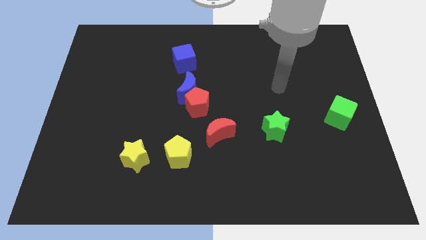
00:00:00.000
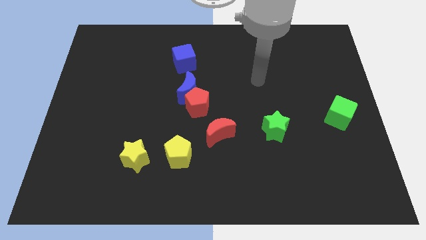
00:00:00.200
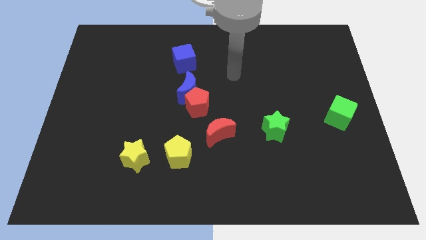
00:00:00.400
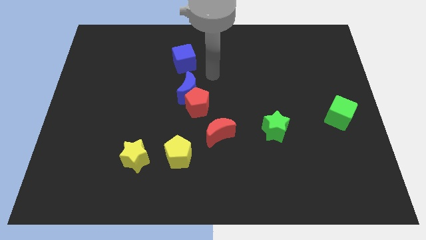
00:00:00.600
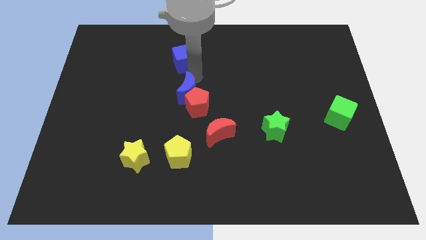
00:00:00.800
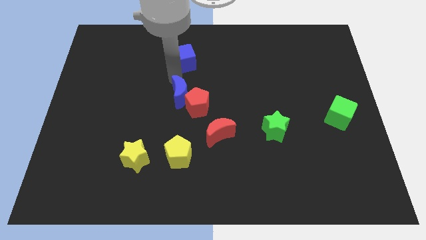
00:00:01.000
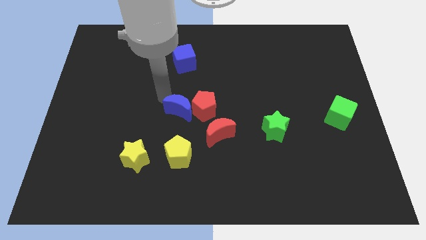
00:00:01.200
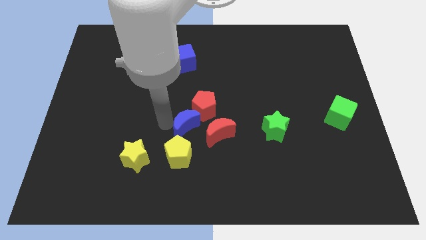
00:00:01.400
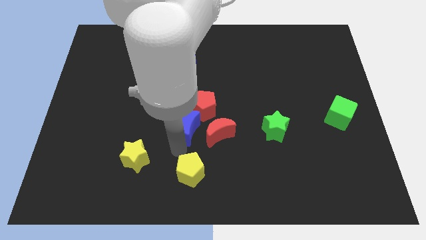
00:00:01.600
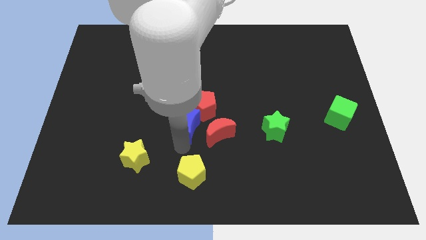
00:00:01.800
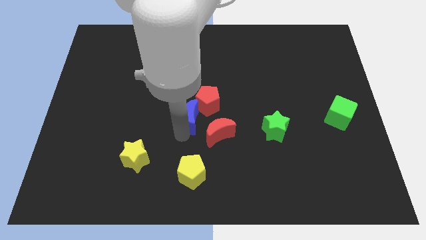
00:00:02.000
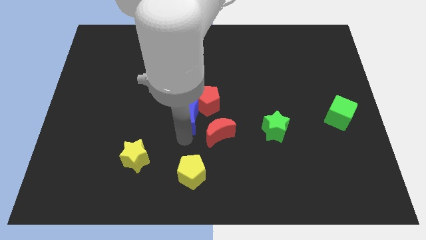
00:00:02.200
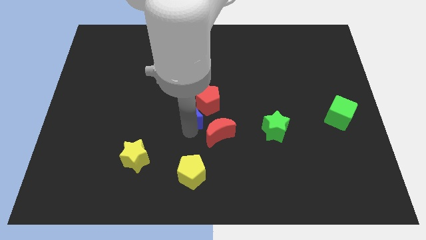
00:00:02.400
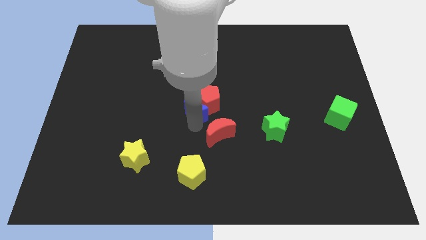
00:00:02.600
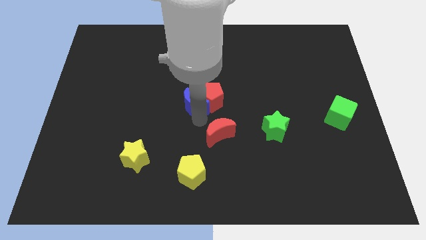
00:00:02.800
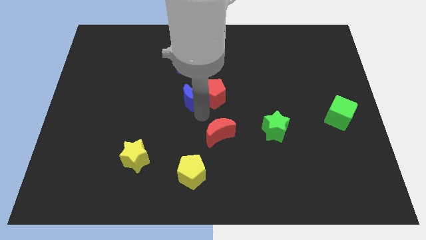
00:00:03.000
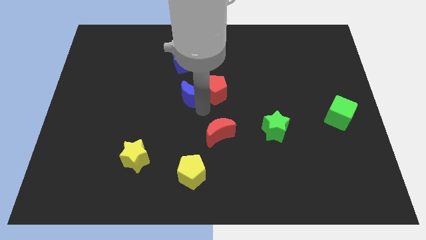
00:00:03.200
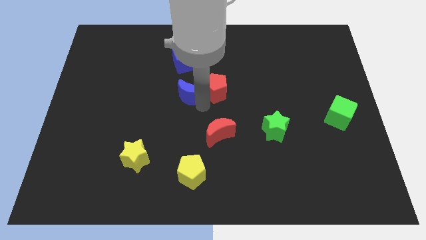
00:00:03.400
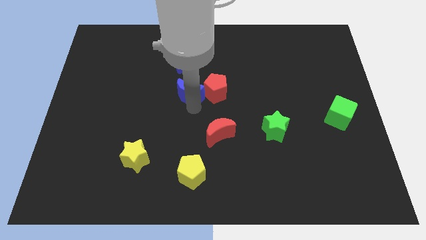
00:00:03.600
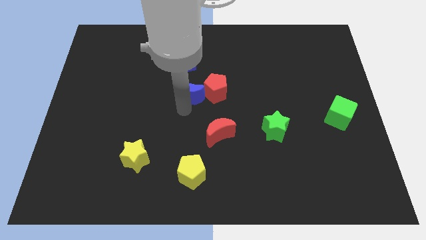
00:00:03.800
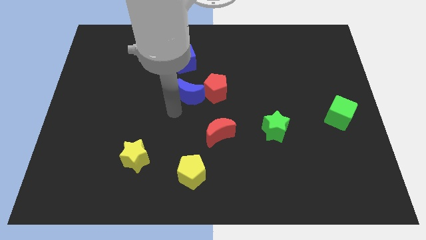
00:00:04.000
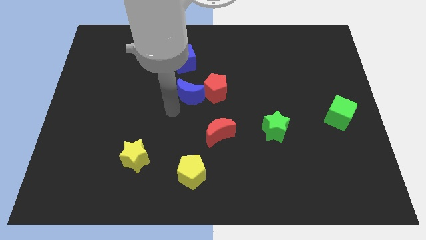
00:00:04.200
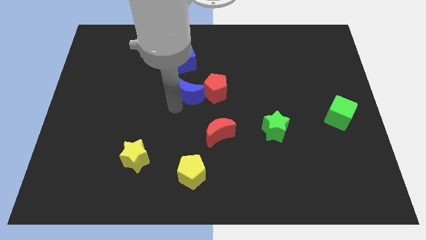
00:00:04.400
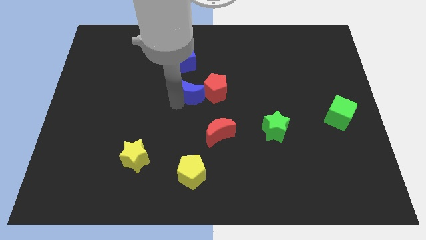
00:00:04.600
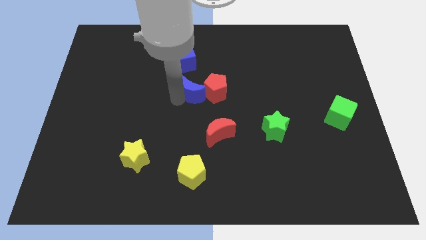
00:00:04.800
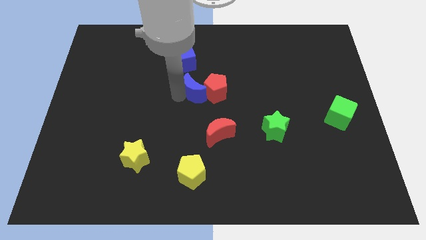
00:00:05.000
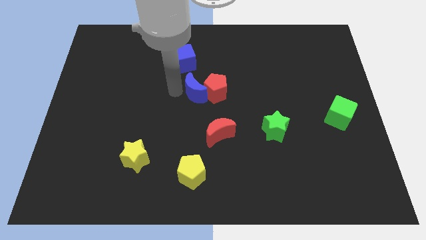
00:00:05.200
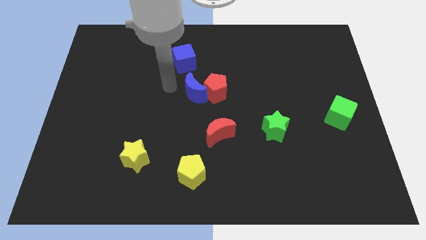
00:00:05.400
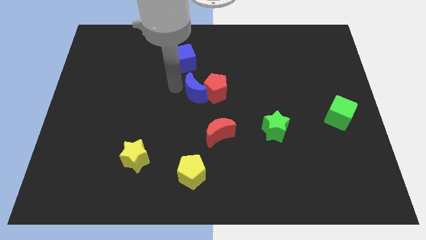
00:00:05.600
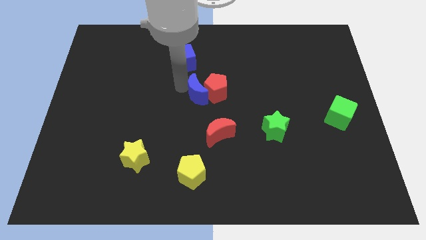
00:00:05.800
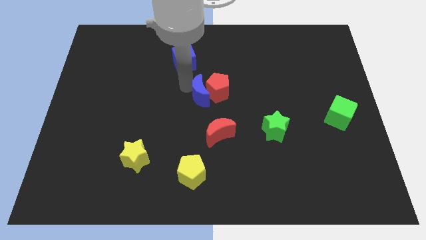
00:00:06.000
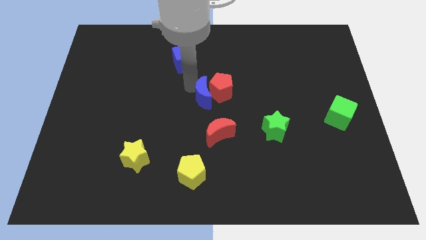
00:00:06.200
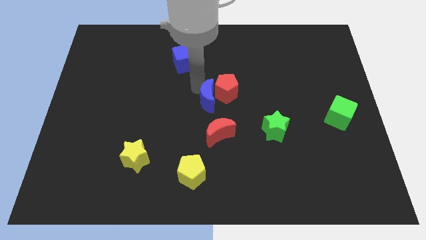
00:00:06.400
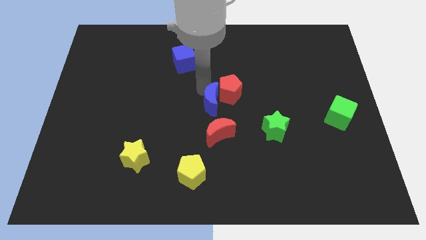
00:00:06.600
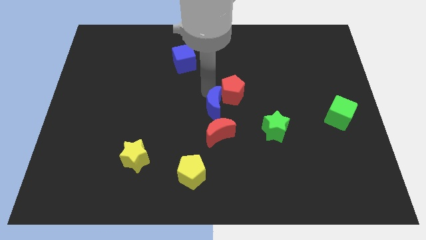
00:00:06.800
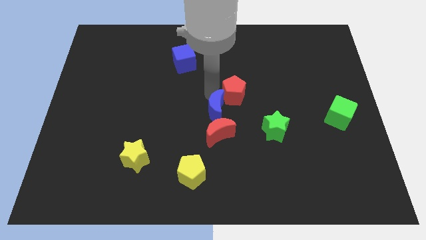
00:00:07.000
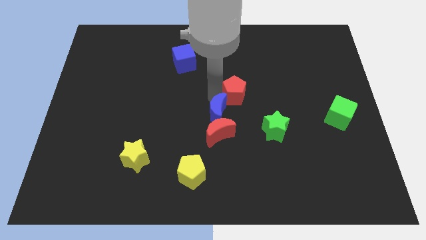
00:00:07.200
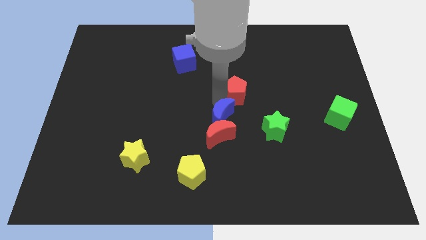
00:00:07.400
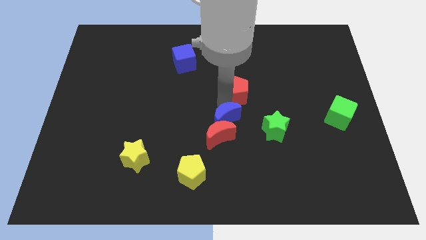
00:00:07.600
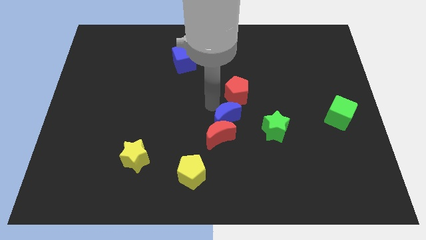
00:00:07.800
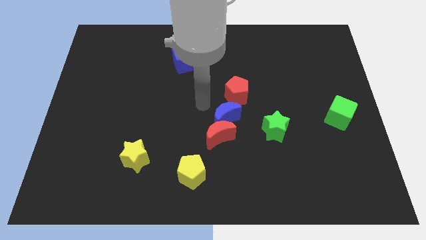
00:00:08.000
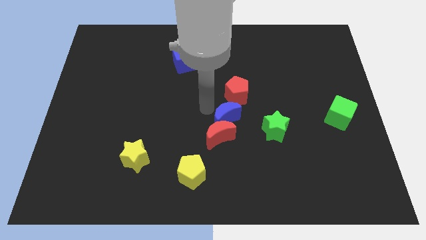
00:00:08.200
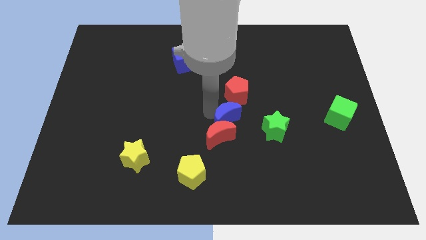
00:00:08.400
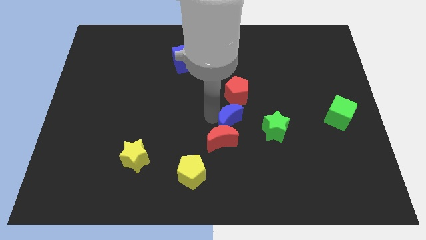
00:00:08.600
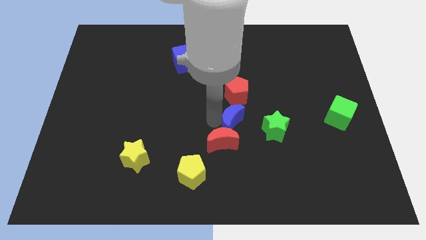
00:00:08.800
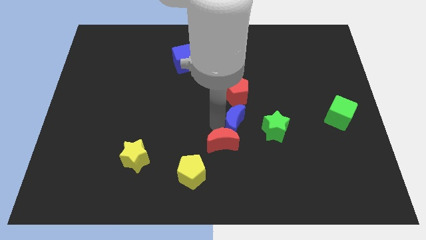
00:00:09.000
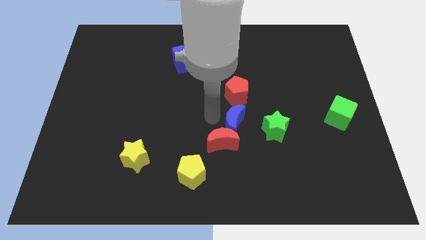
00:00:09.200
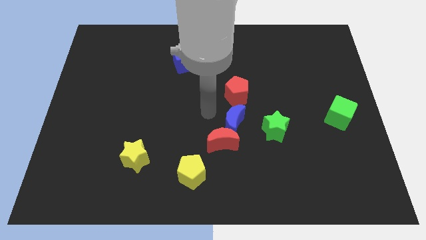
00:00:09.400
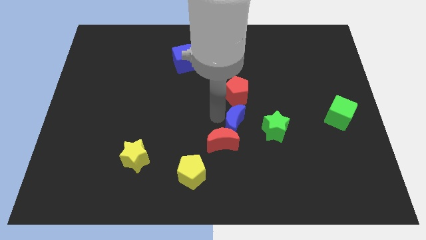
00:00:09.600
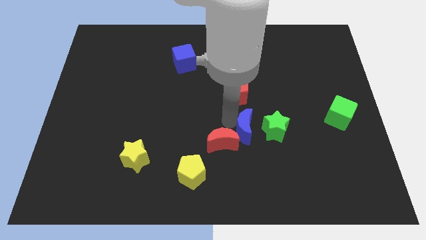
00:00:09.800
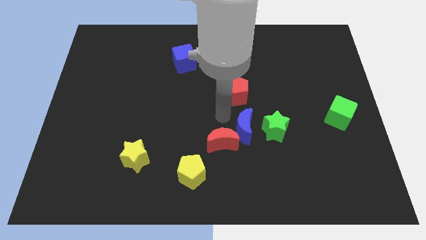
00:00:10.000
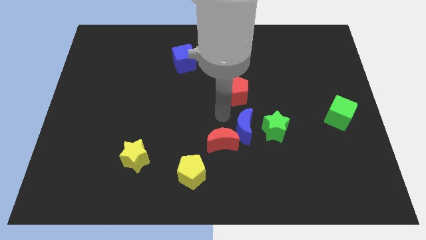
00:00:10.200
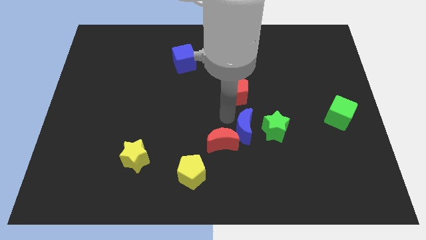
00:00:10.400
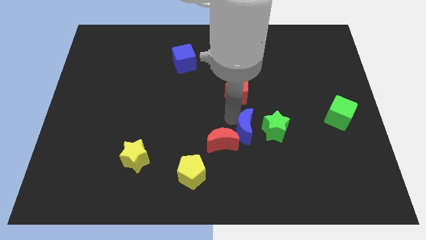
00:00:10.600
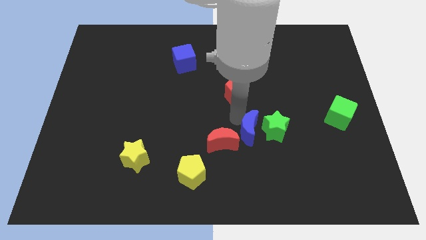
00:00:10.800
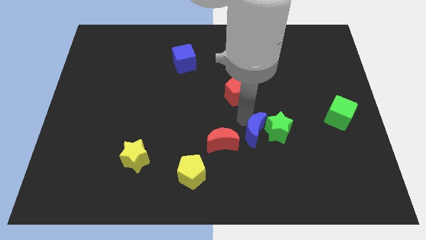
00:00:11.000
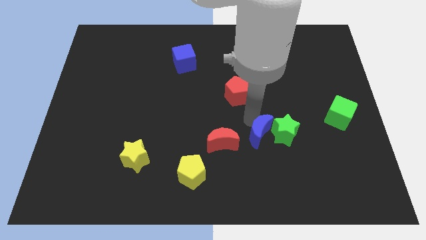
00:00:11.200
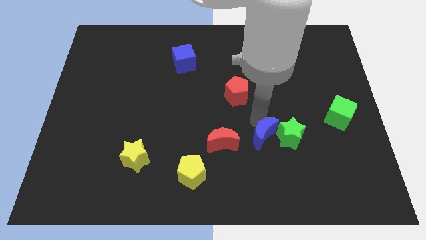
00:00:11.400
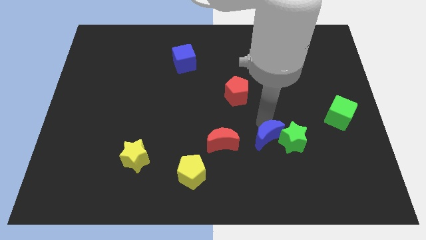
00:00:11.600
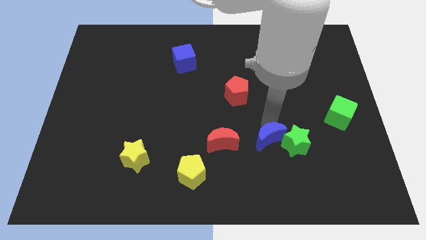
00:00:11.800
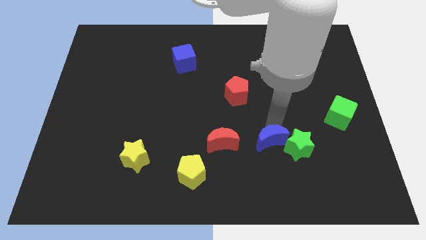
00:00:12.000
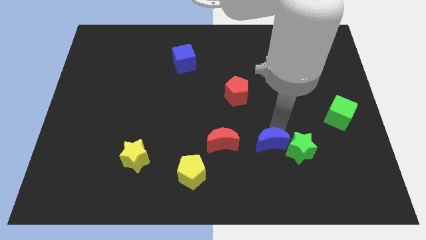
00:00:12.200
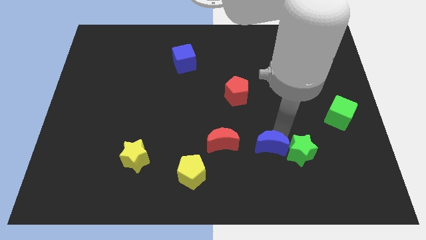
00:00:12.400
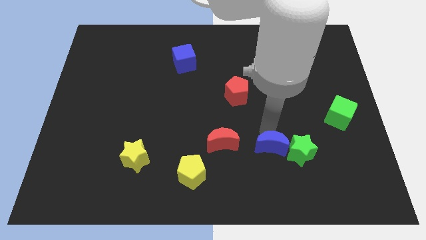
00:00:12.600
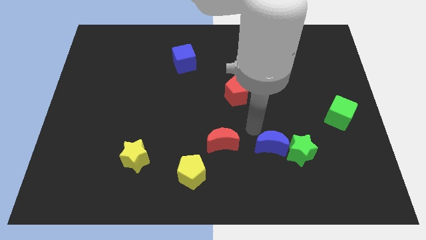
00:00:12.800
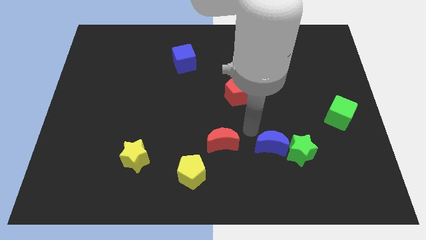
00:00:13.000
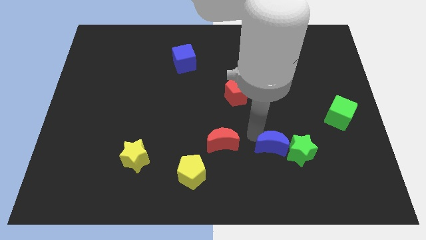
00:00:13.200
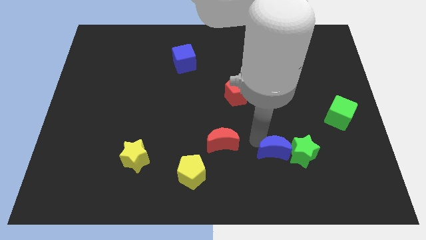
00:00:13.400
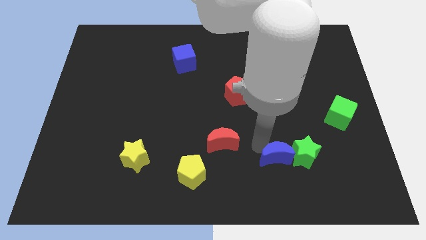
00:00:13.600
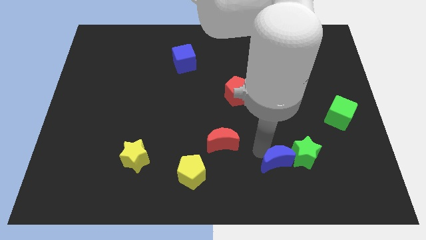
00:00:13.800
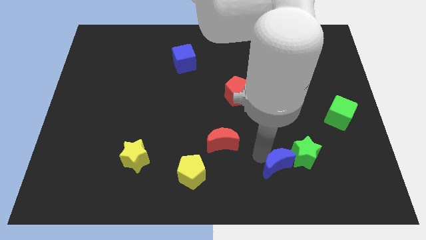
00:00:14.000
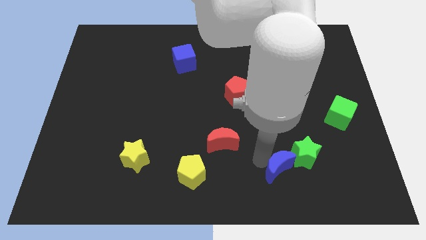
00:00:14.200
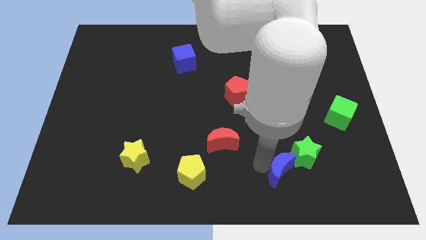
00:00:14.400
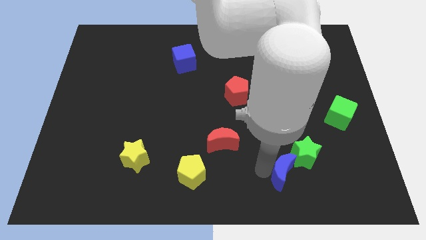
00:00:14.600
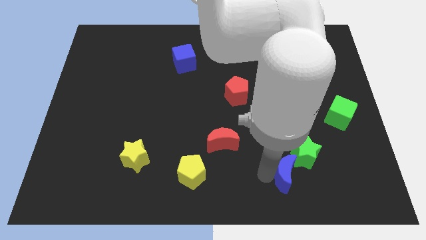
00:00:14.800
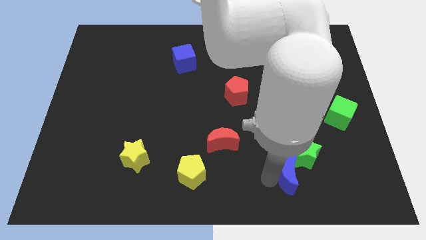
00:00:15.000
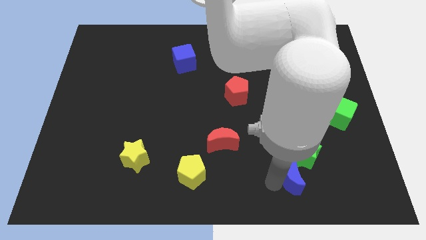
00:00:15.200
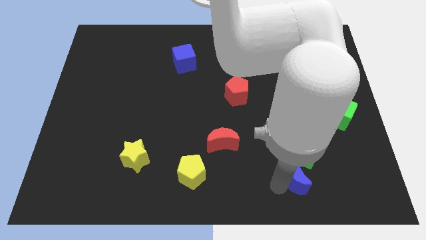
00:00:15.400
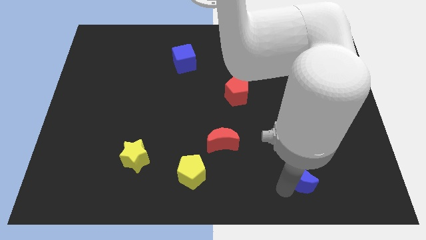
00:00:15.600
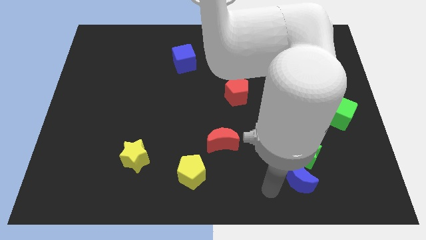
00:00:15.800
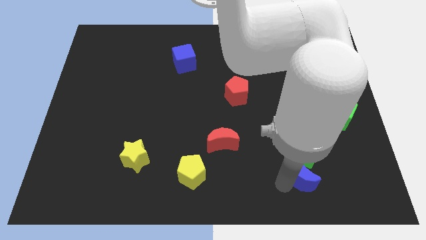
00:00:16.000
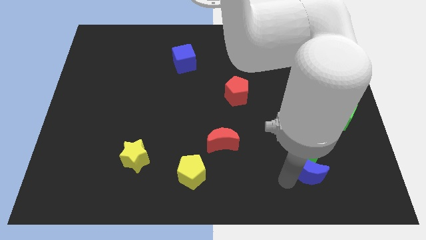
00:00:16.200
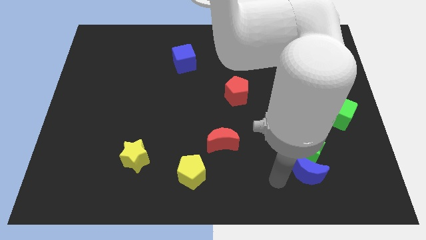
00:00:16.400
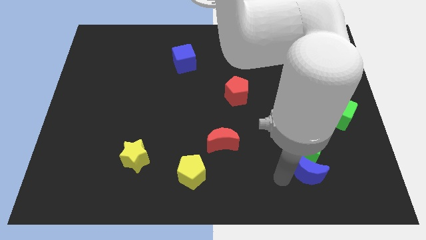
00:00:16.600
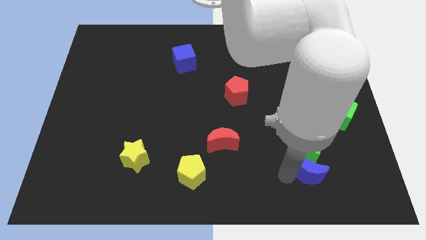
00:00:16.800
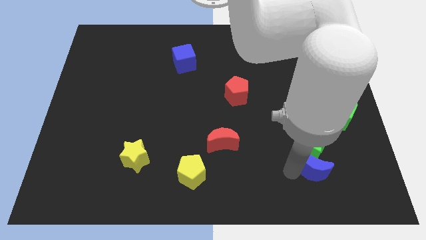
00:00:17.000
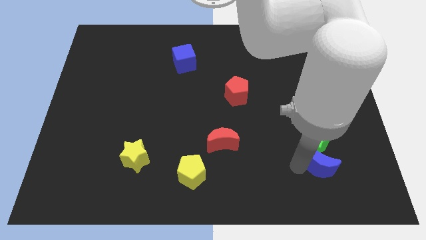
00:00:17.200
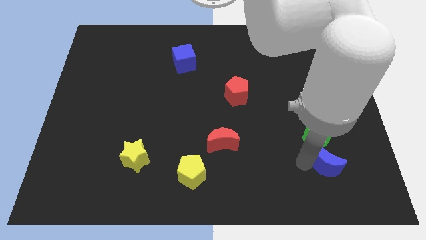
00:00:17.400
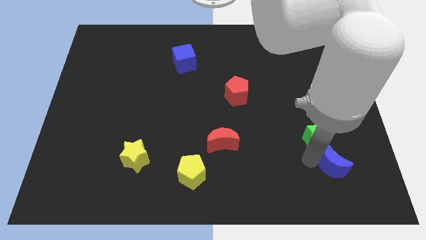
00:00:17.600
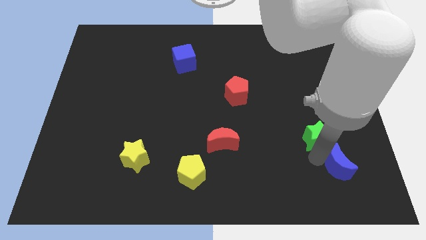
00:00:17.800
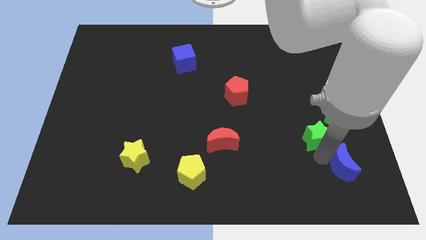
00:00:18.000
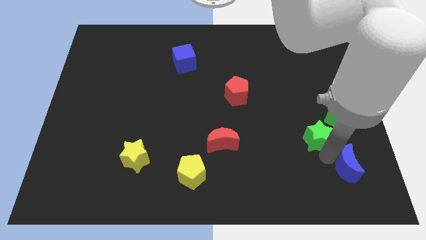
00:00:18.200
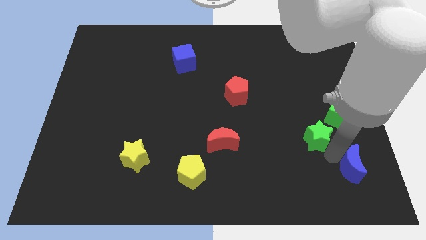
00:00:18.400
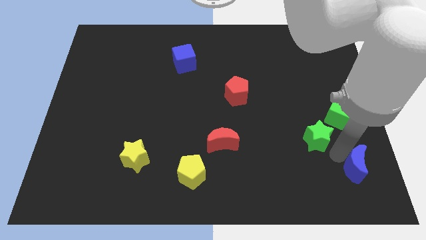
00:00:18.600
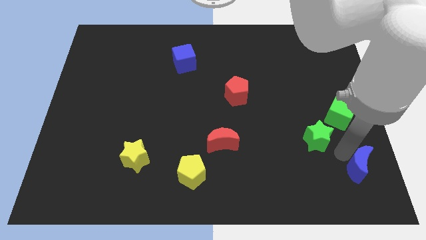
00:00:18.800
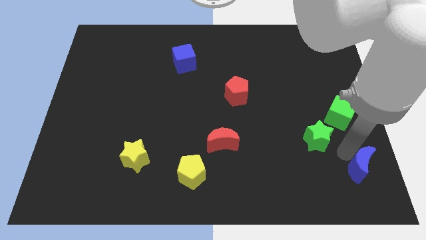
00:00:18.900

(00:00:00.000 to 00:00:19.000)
put the blue moon to the bottom right of the board
